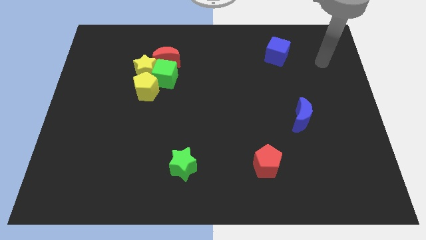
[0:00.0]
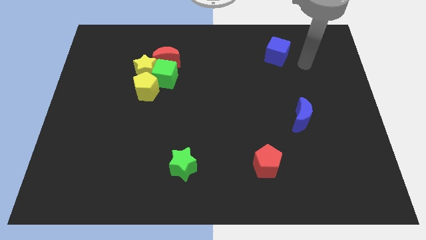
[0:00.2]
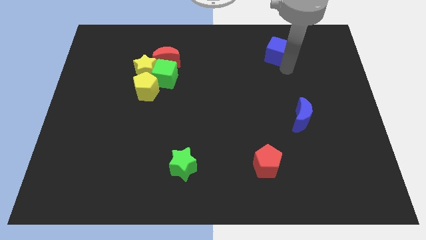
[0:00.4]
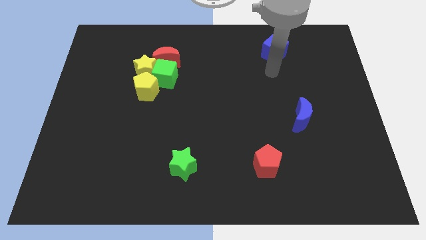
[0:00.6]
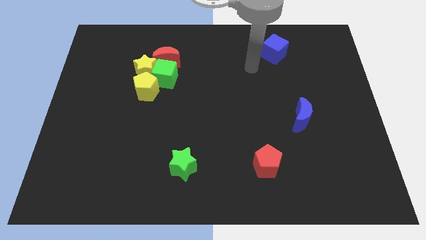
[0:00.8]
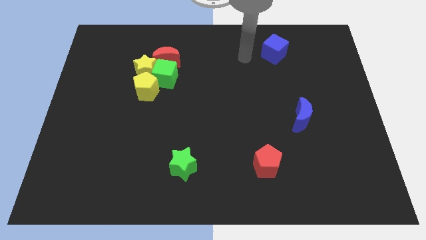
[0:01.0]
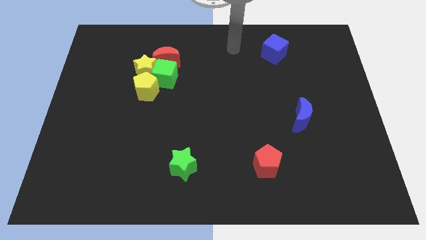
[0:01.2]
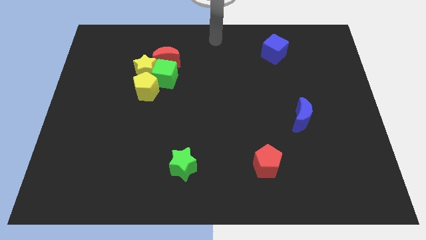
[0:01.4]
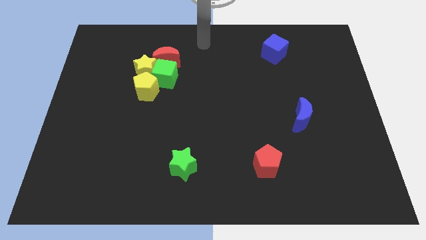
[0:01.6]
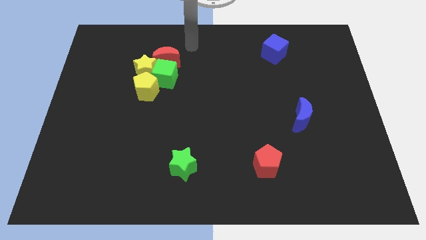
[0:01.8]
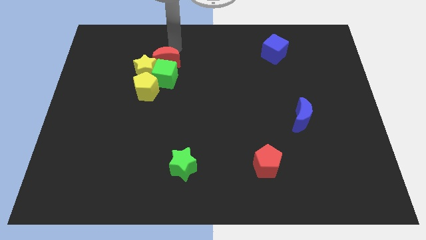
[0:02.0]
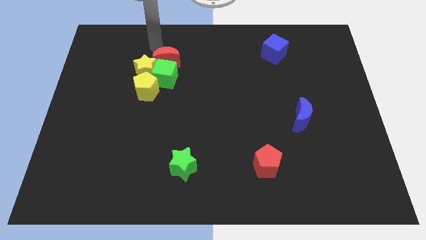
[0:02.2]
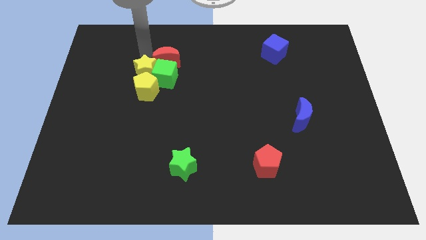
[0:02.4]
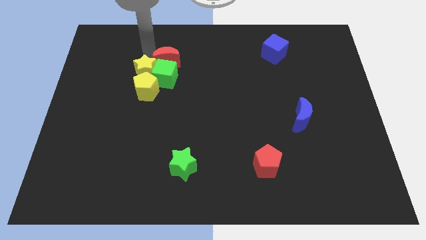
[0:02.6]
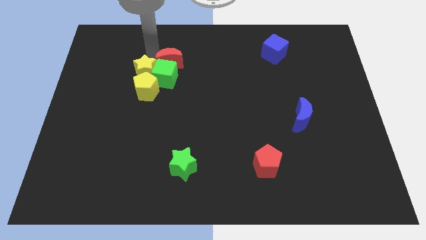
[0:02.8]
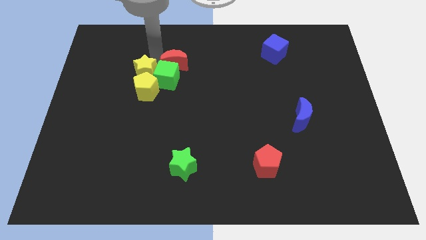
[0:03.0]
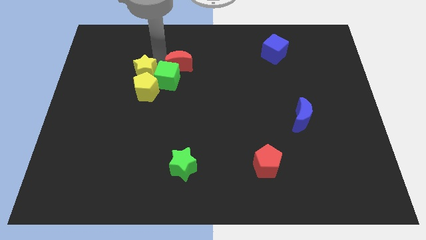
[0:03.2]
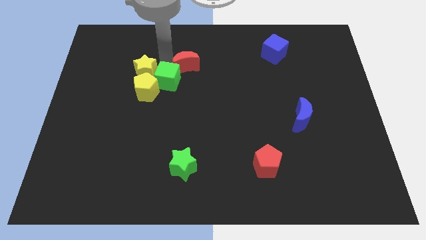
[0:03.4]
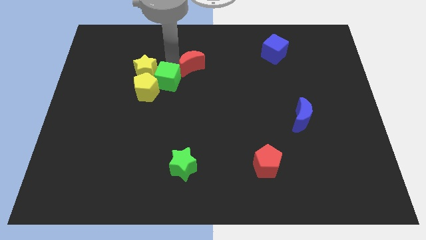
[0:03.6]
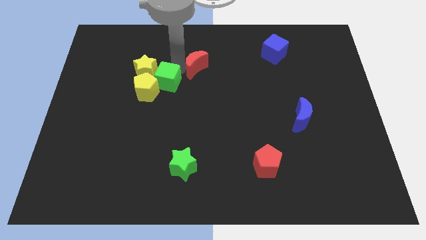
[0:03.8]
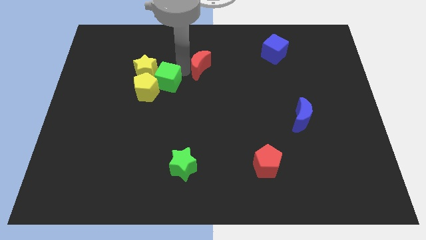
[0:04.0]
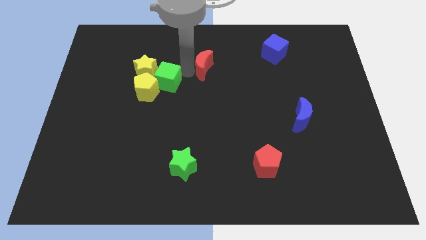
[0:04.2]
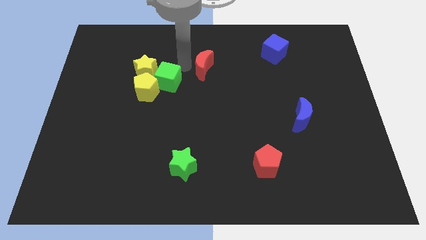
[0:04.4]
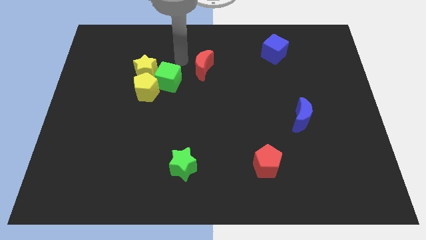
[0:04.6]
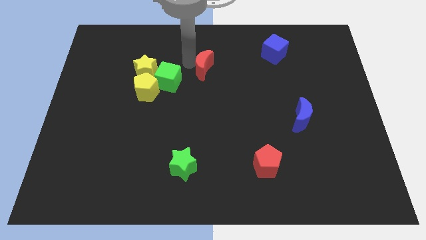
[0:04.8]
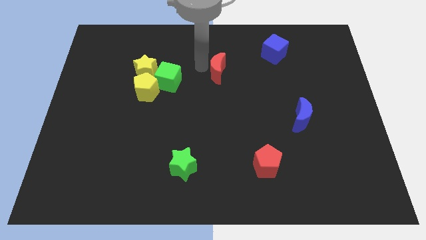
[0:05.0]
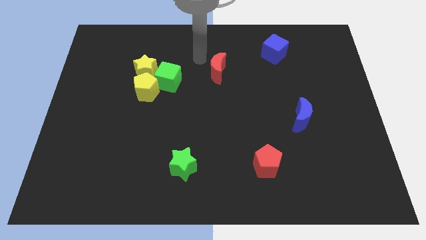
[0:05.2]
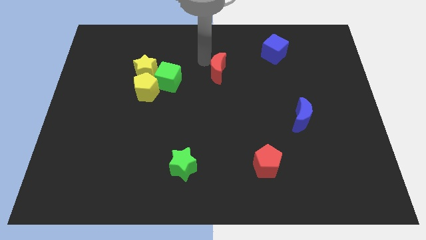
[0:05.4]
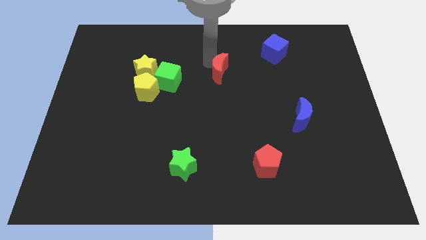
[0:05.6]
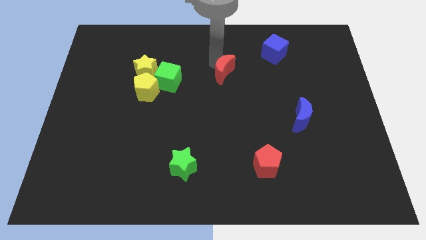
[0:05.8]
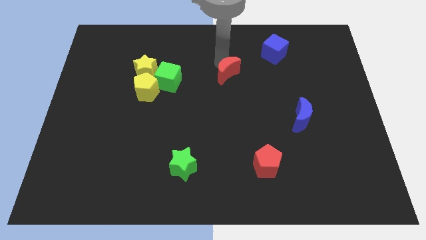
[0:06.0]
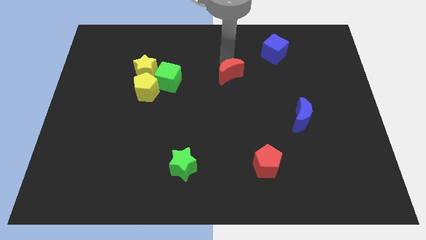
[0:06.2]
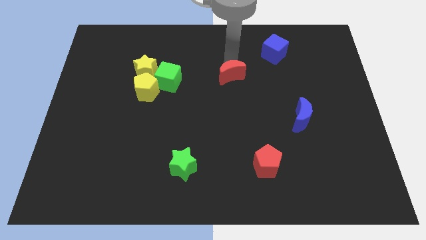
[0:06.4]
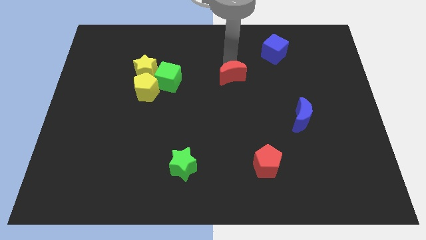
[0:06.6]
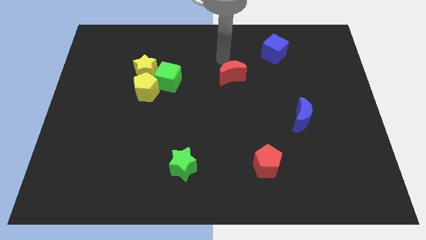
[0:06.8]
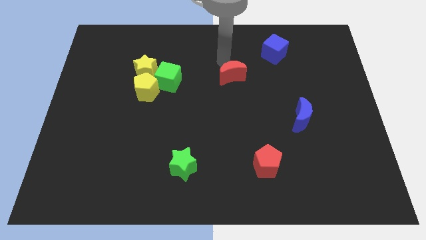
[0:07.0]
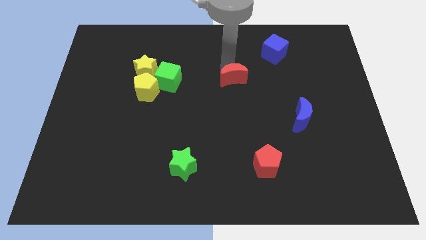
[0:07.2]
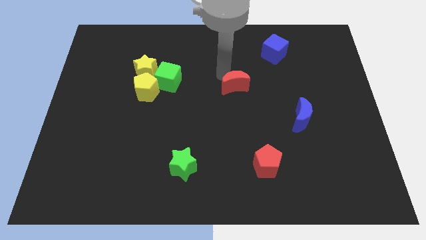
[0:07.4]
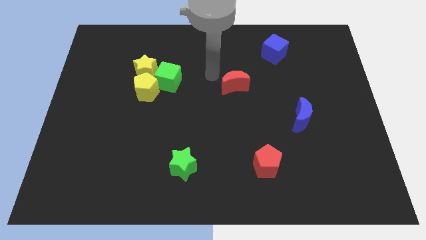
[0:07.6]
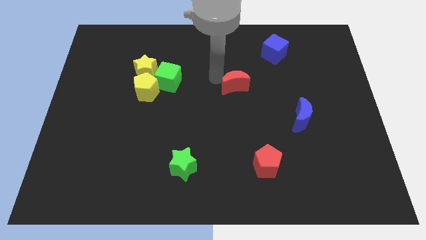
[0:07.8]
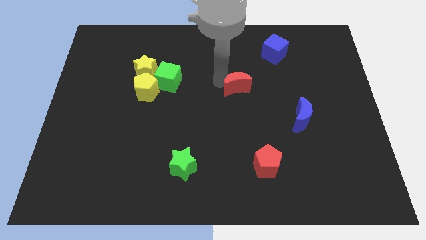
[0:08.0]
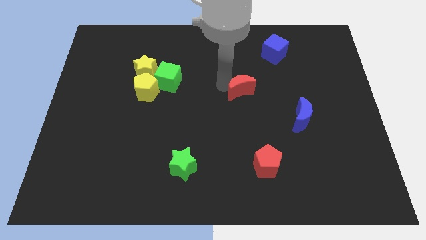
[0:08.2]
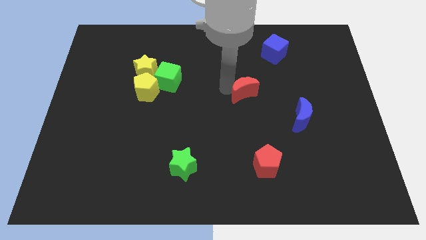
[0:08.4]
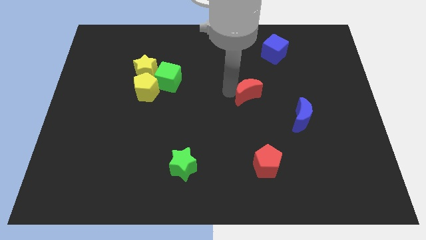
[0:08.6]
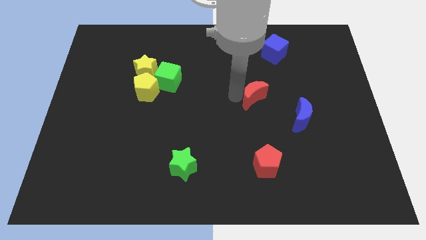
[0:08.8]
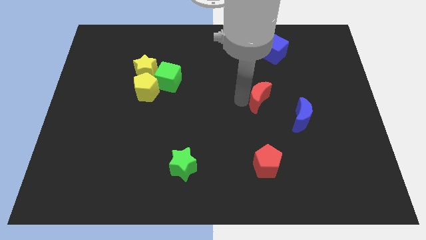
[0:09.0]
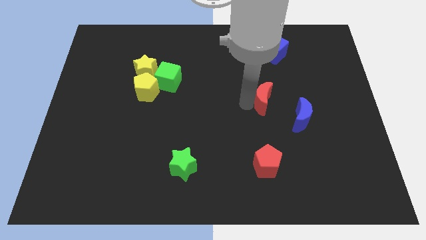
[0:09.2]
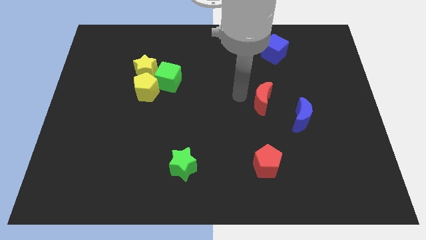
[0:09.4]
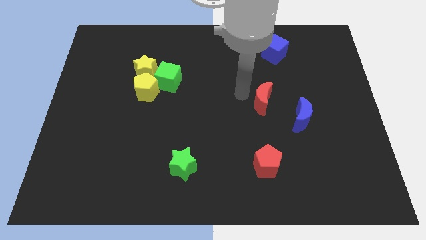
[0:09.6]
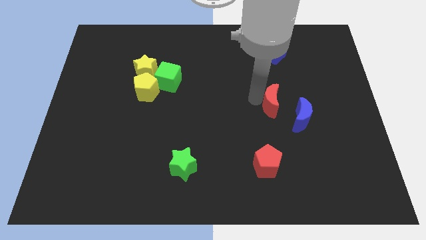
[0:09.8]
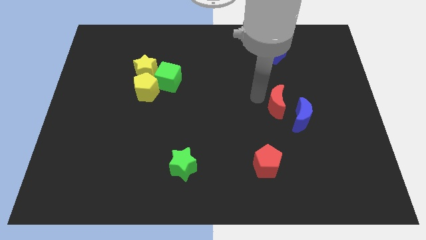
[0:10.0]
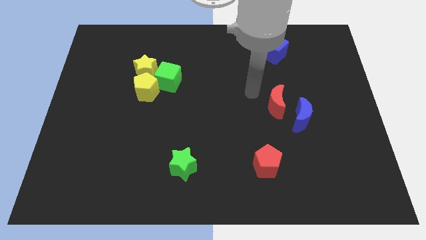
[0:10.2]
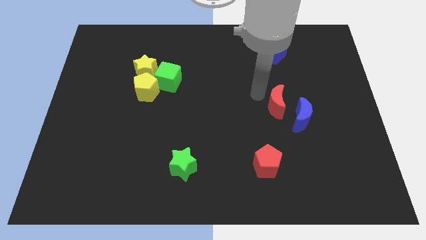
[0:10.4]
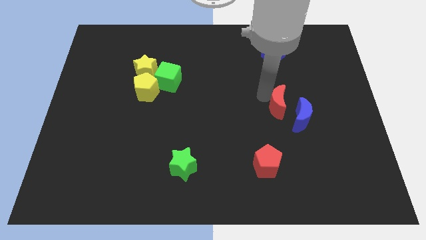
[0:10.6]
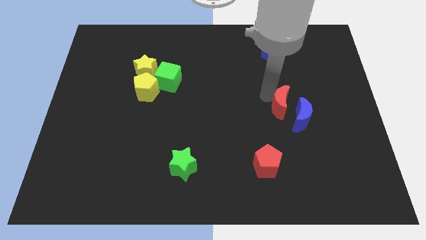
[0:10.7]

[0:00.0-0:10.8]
put the red moon close to the blue moon

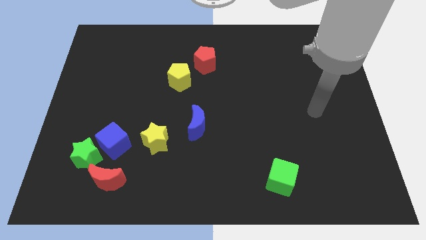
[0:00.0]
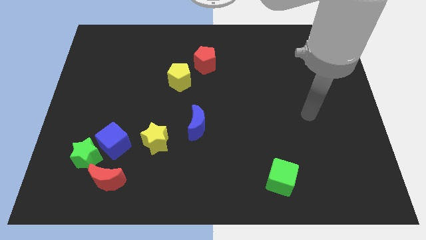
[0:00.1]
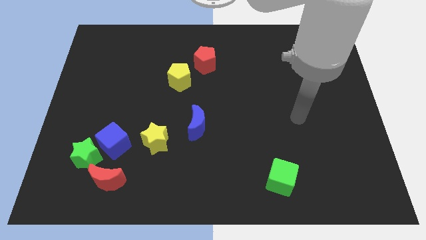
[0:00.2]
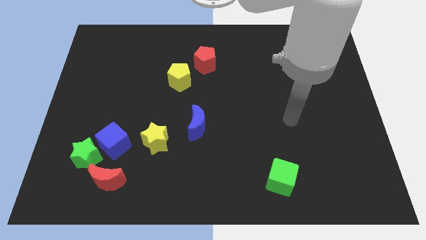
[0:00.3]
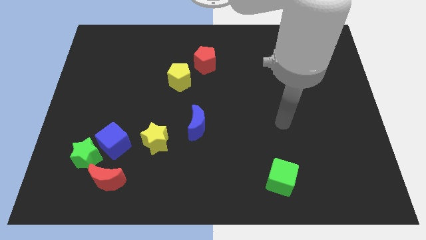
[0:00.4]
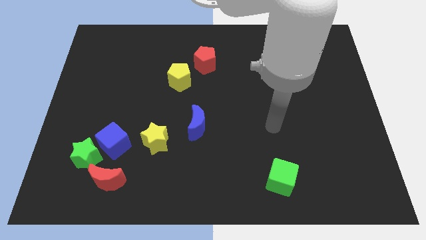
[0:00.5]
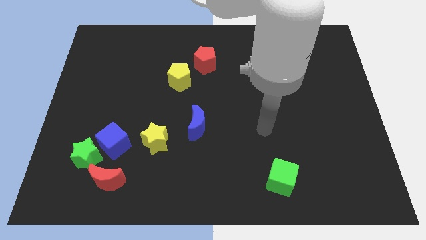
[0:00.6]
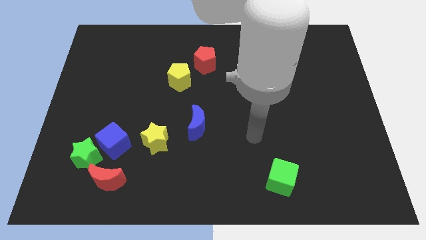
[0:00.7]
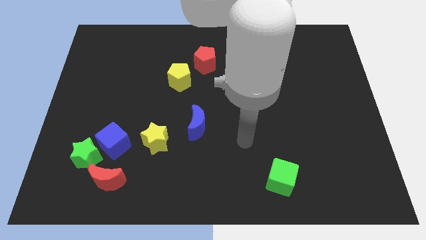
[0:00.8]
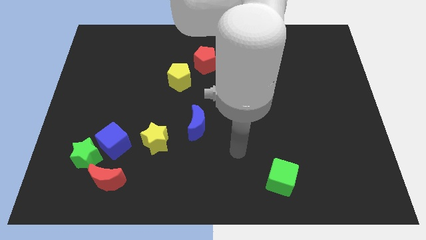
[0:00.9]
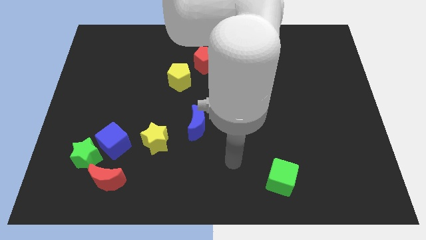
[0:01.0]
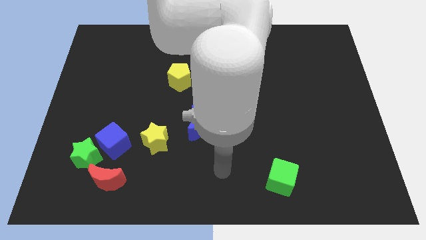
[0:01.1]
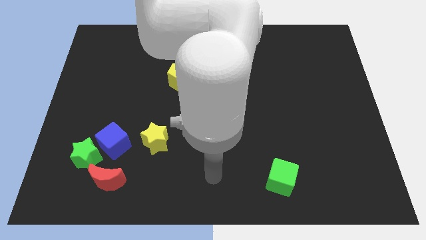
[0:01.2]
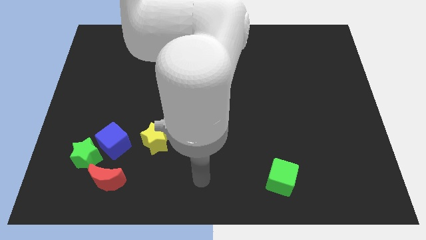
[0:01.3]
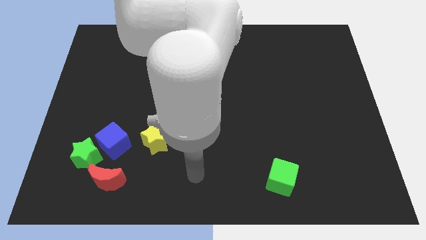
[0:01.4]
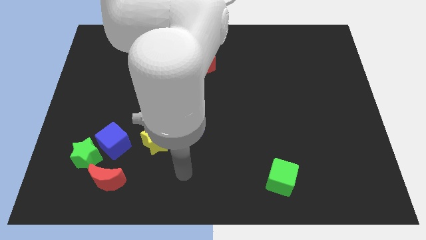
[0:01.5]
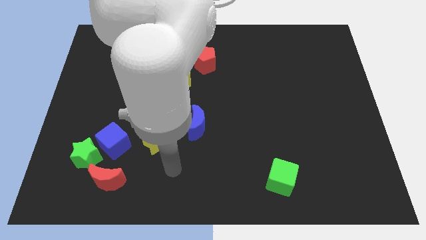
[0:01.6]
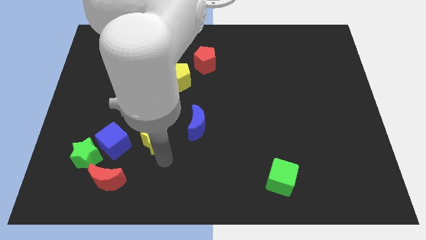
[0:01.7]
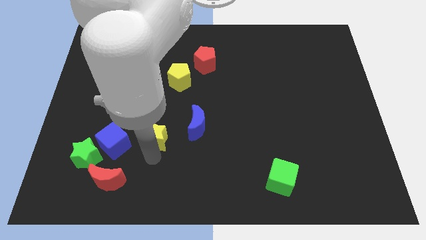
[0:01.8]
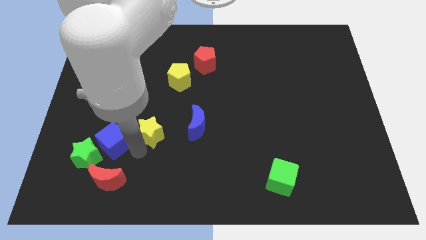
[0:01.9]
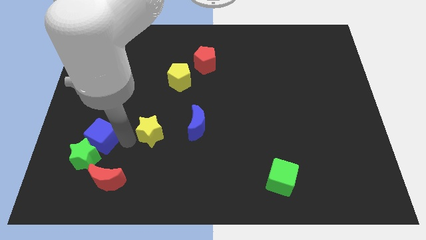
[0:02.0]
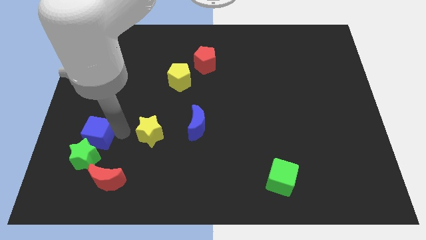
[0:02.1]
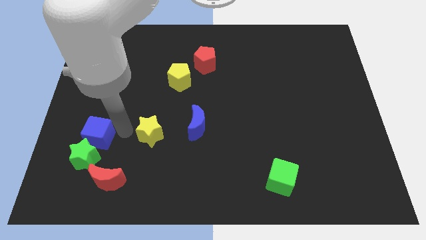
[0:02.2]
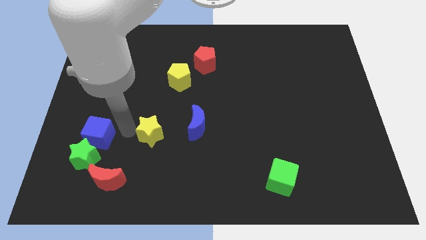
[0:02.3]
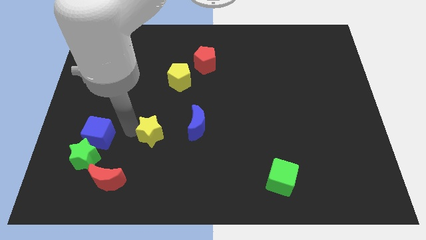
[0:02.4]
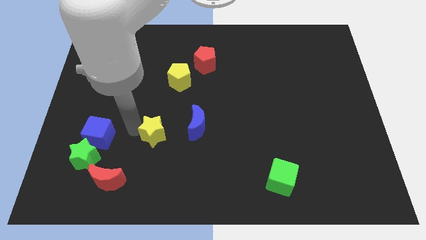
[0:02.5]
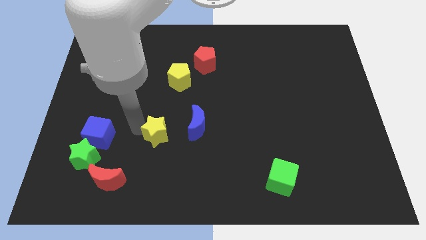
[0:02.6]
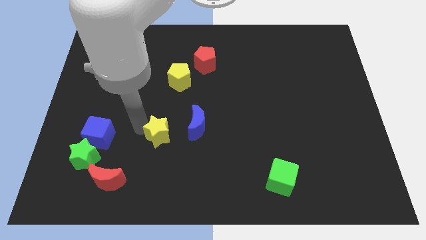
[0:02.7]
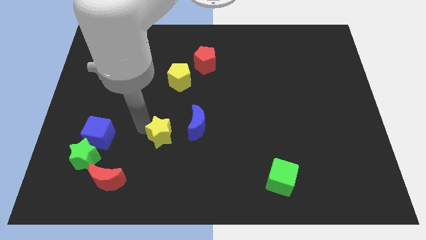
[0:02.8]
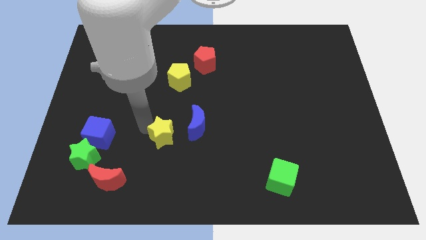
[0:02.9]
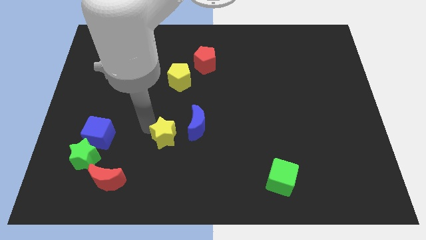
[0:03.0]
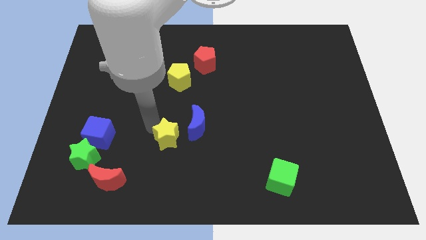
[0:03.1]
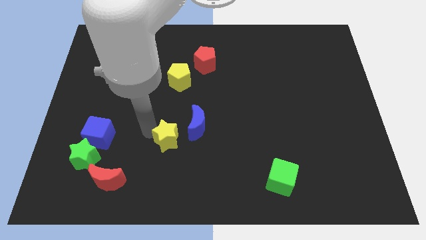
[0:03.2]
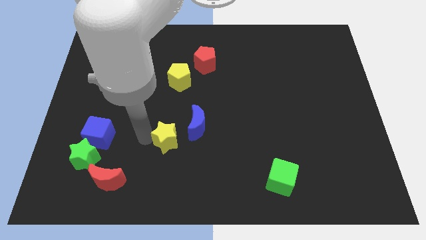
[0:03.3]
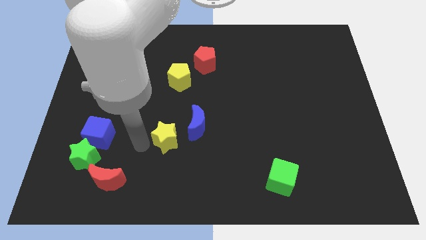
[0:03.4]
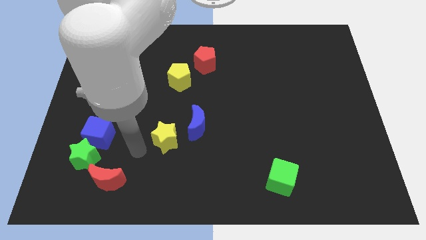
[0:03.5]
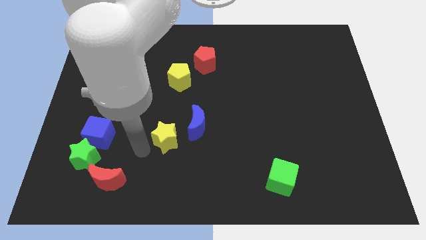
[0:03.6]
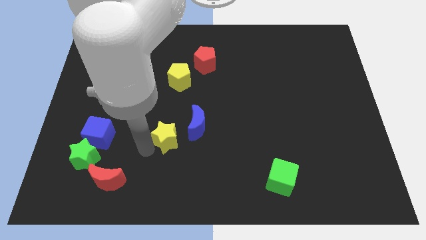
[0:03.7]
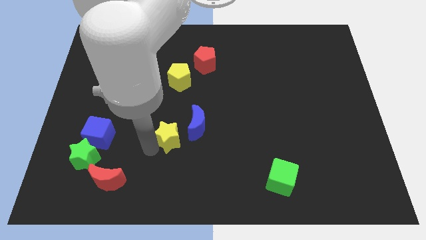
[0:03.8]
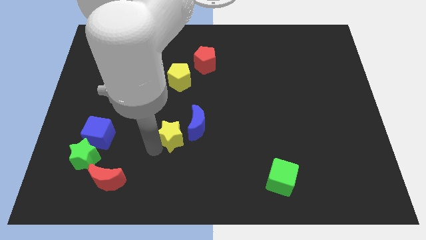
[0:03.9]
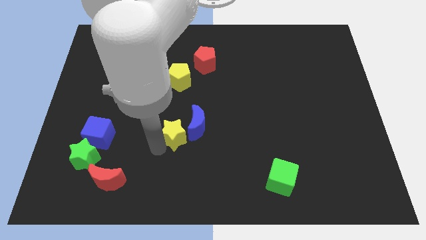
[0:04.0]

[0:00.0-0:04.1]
put the yellow star towards the blue moon
